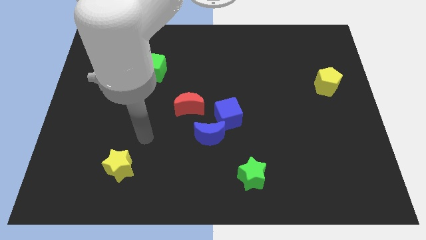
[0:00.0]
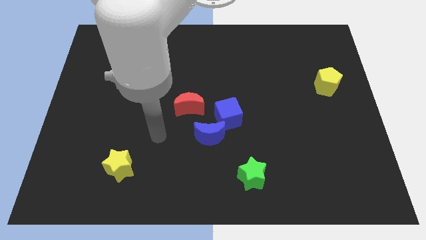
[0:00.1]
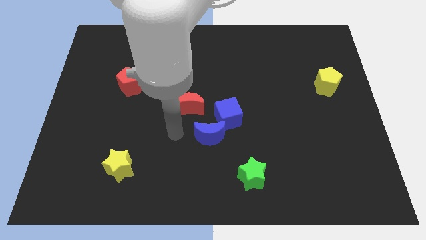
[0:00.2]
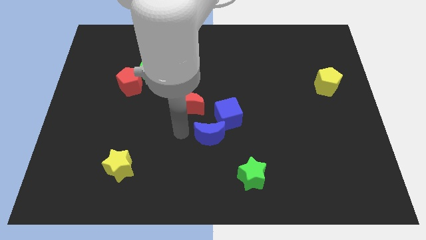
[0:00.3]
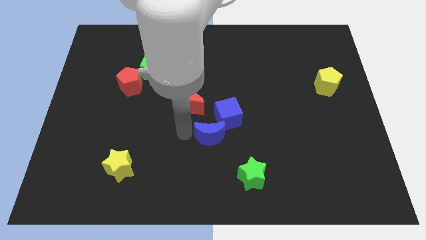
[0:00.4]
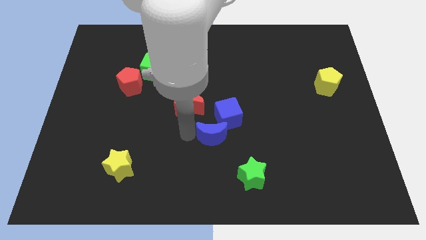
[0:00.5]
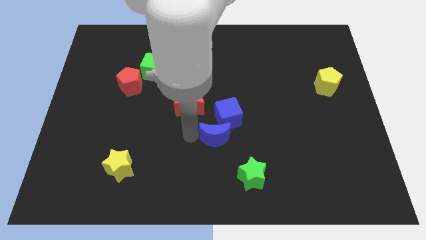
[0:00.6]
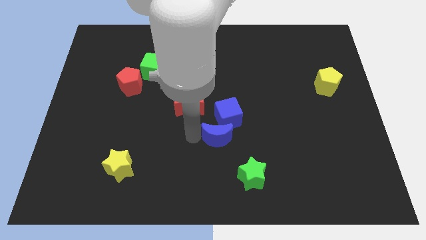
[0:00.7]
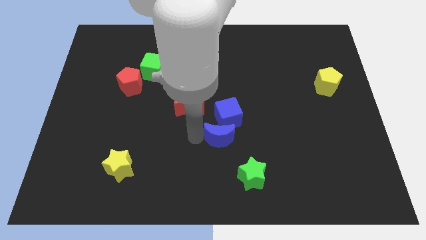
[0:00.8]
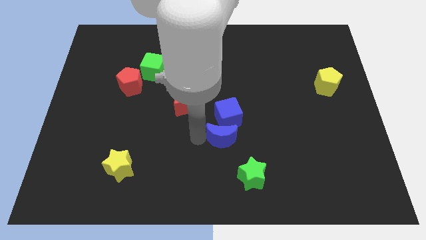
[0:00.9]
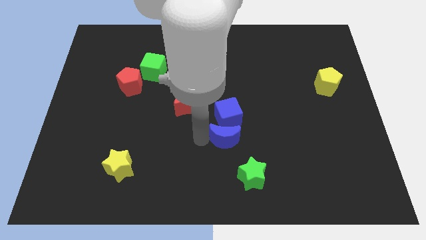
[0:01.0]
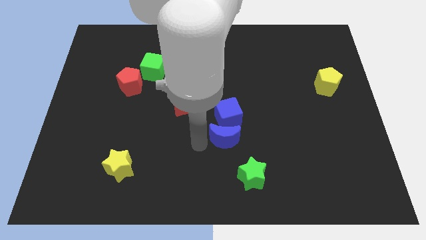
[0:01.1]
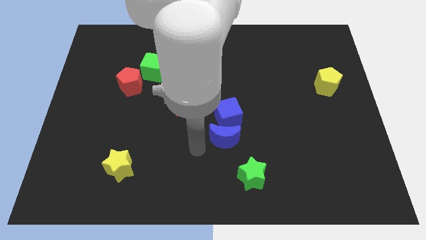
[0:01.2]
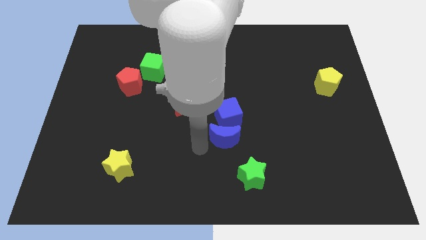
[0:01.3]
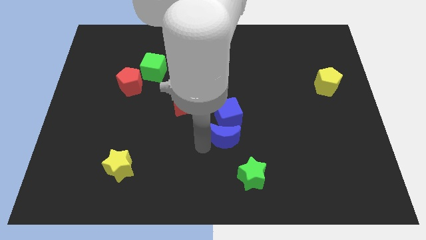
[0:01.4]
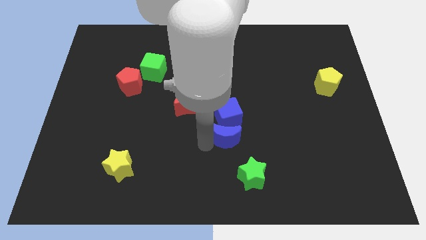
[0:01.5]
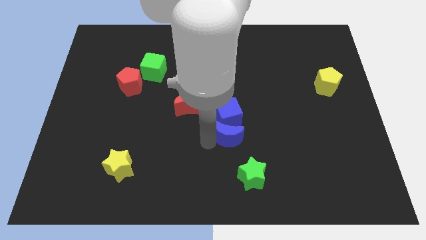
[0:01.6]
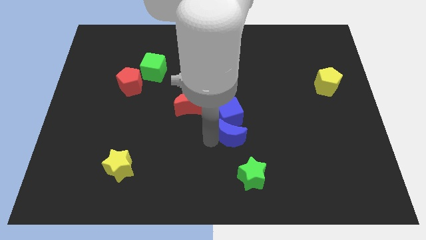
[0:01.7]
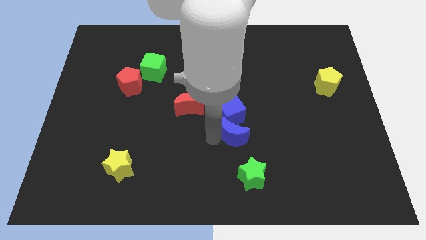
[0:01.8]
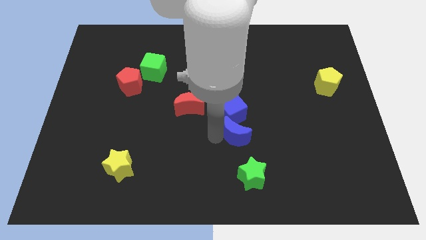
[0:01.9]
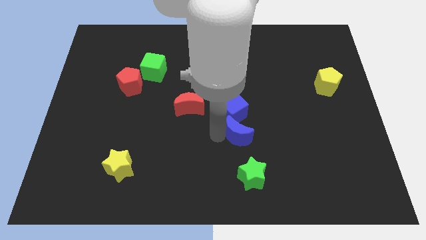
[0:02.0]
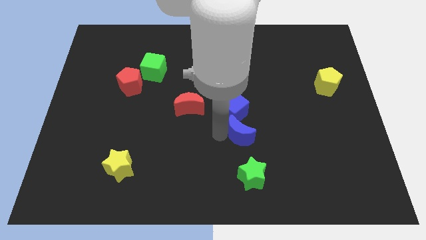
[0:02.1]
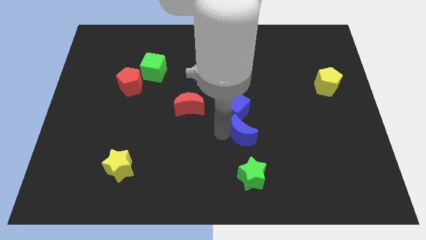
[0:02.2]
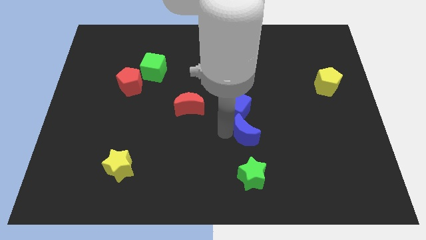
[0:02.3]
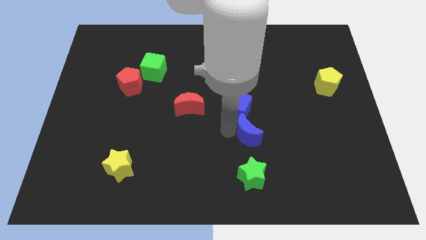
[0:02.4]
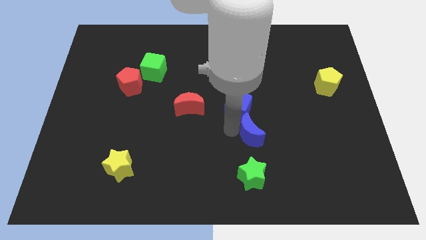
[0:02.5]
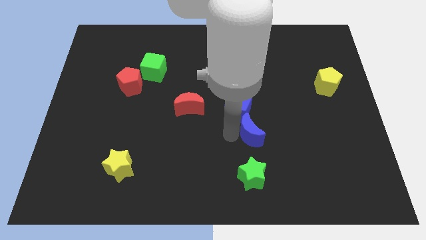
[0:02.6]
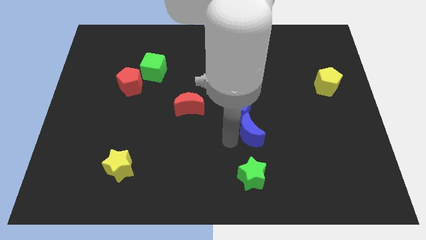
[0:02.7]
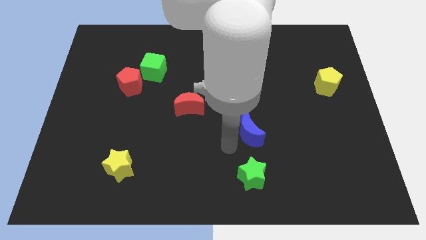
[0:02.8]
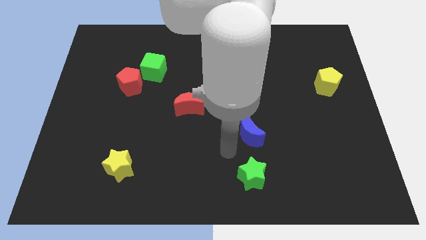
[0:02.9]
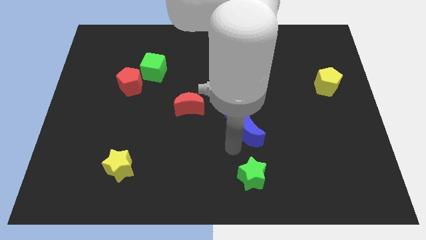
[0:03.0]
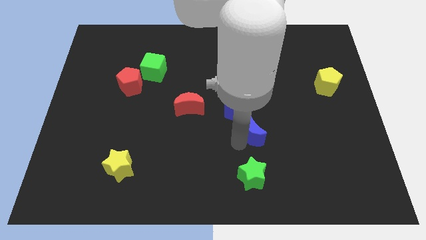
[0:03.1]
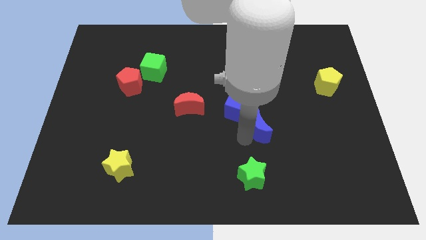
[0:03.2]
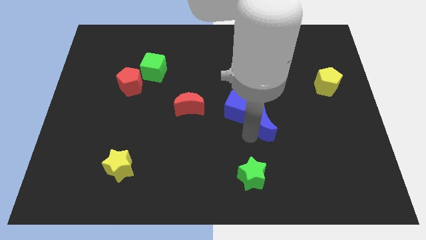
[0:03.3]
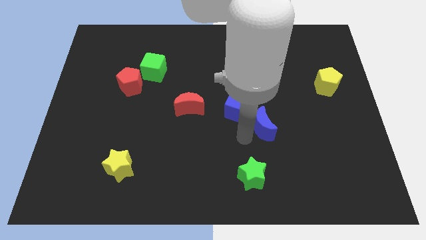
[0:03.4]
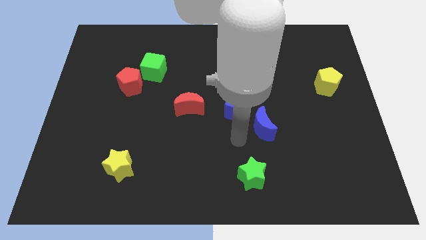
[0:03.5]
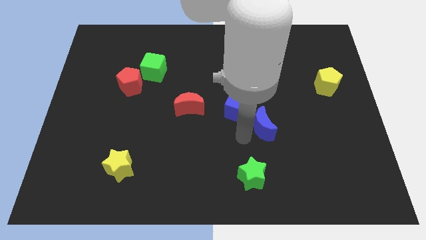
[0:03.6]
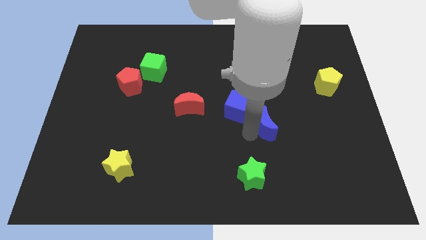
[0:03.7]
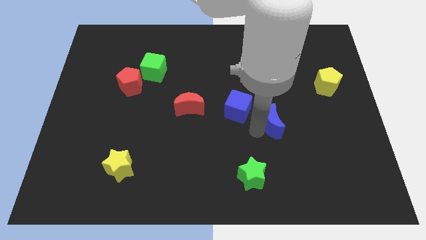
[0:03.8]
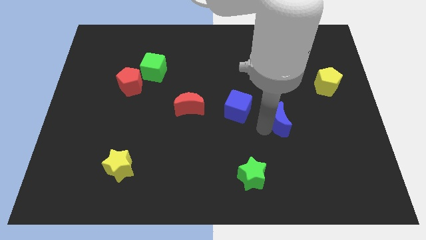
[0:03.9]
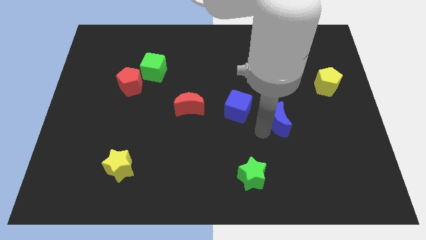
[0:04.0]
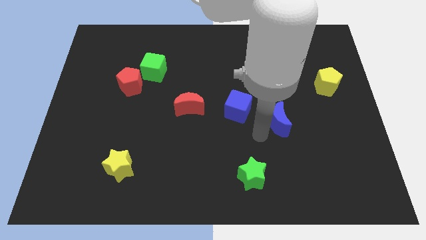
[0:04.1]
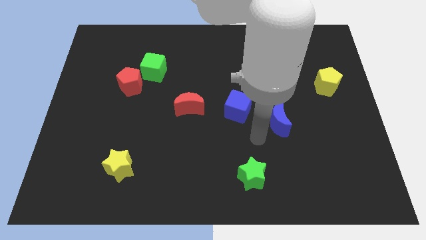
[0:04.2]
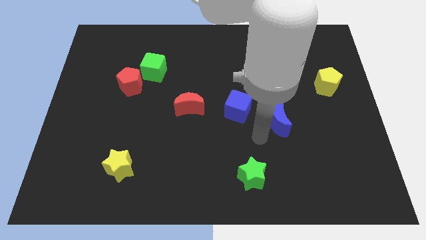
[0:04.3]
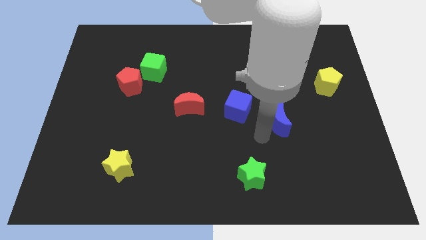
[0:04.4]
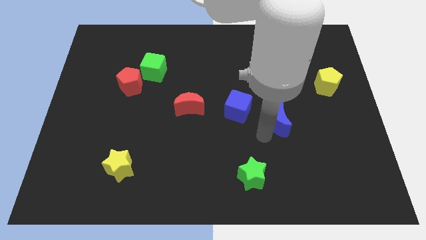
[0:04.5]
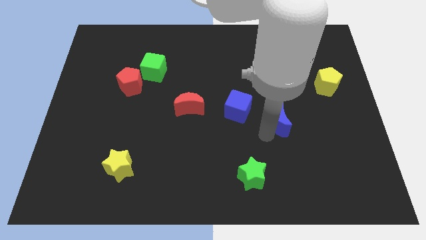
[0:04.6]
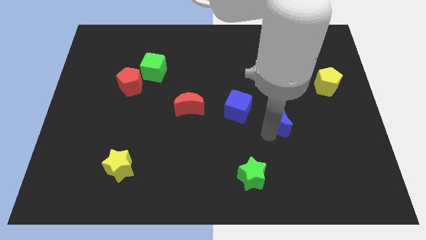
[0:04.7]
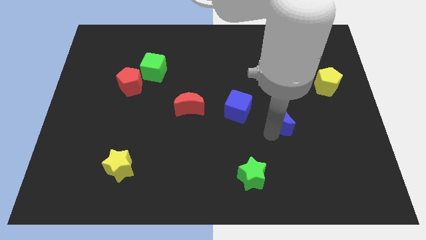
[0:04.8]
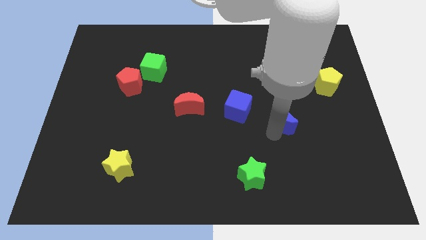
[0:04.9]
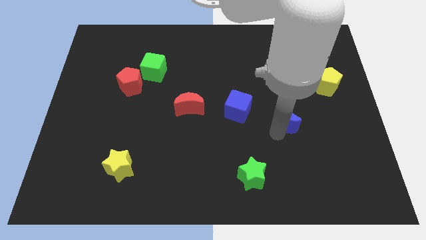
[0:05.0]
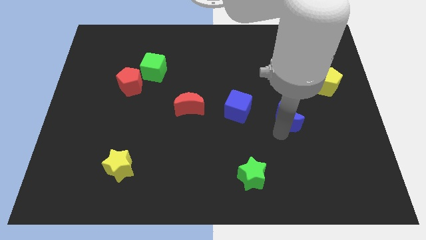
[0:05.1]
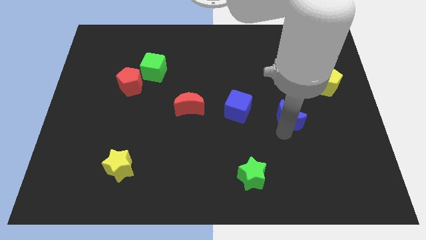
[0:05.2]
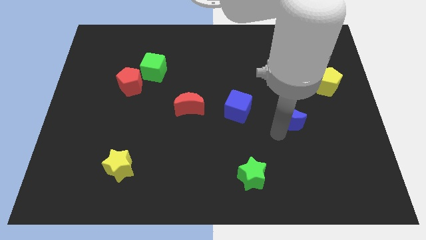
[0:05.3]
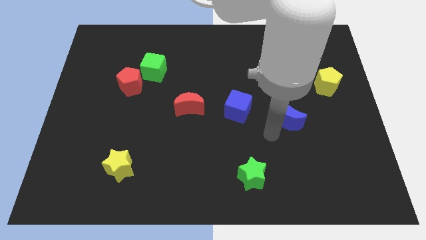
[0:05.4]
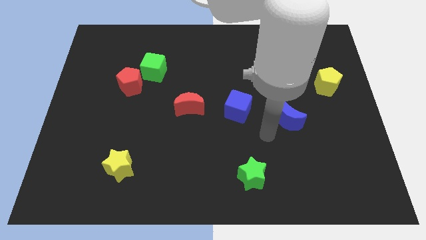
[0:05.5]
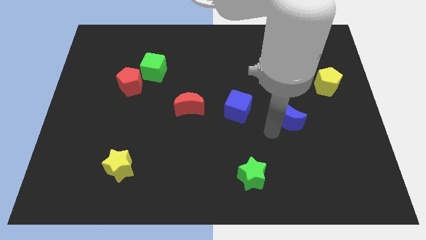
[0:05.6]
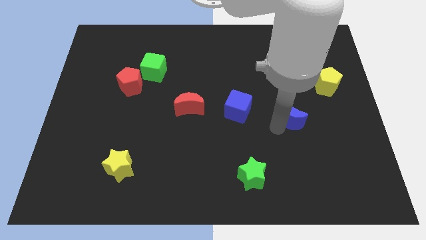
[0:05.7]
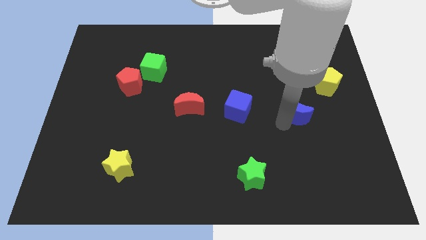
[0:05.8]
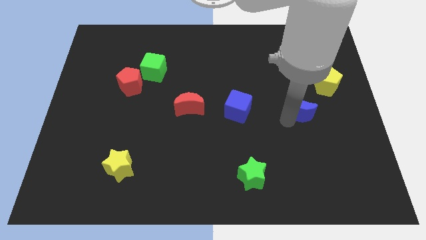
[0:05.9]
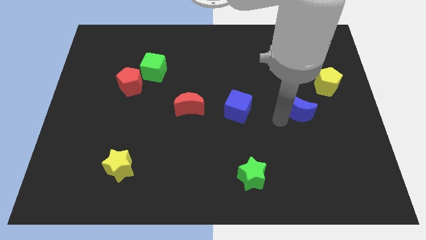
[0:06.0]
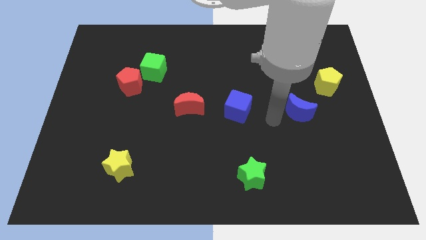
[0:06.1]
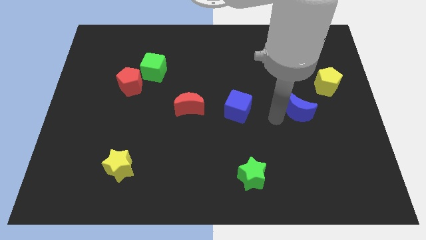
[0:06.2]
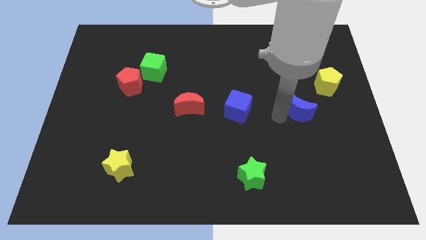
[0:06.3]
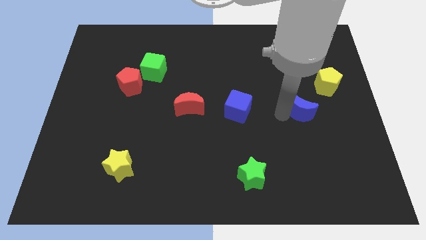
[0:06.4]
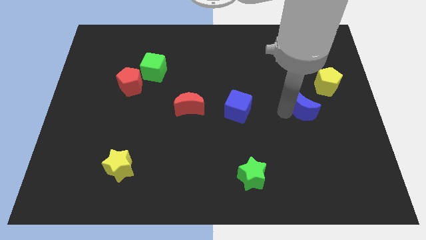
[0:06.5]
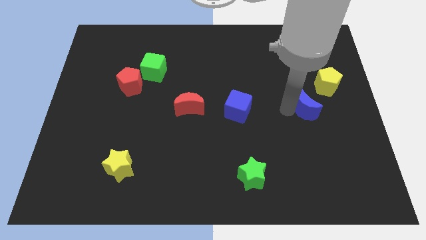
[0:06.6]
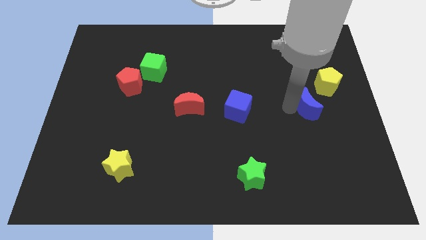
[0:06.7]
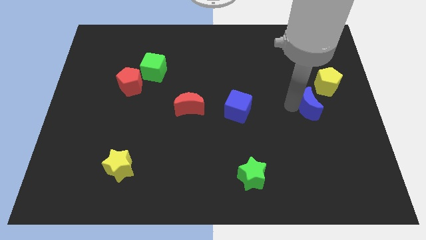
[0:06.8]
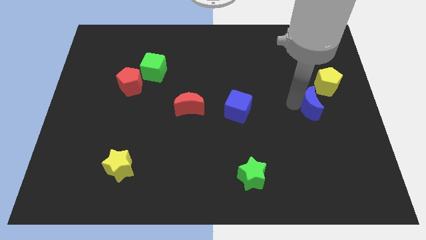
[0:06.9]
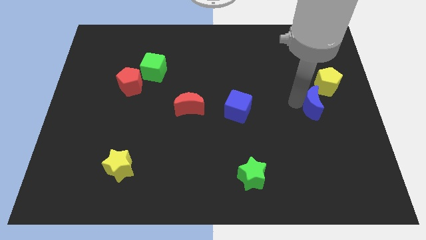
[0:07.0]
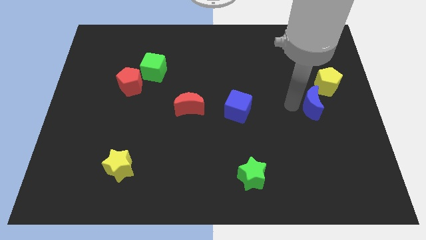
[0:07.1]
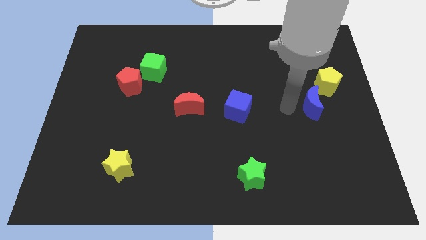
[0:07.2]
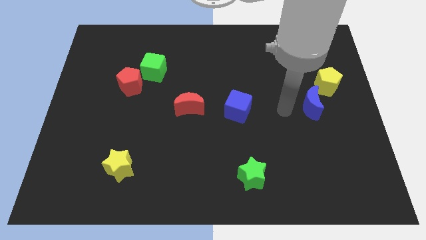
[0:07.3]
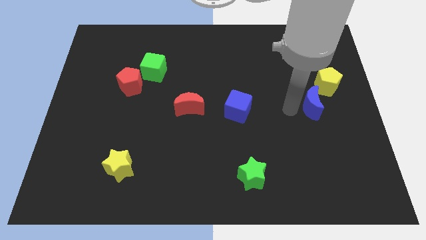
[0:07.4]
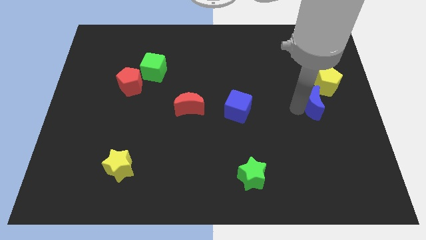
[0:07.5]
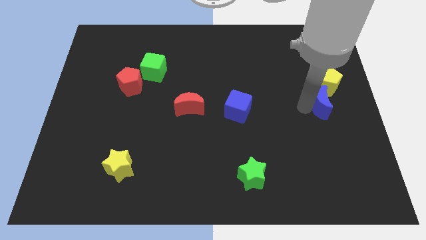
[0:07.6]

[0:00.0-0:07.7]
slide the blue moon to the right side
